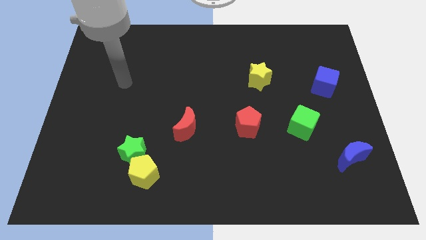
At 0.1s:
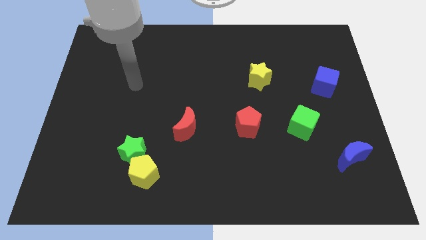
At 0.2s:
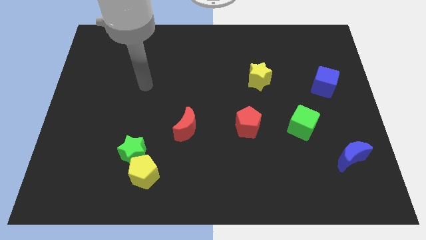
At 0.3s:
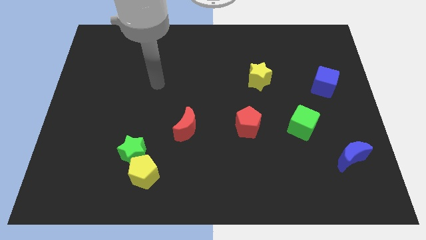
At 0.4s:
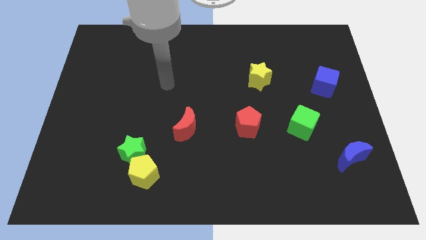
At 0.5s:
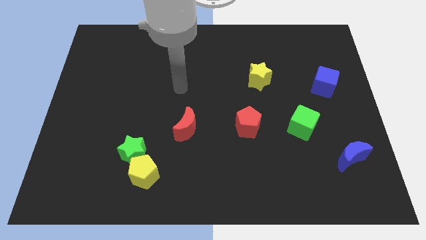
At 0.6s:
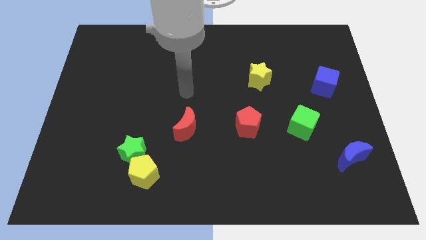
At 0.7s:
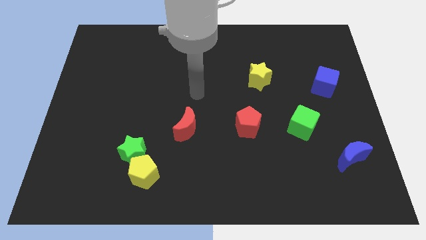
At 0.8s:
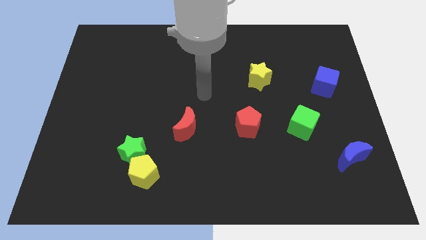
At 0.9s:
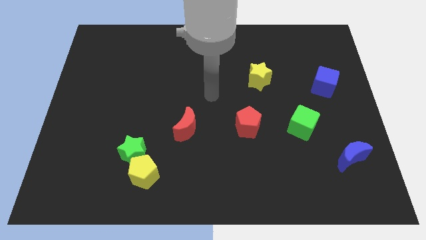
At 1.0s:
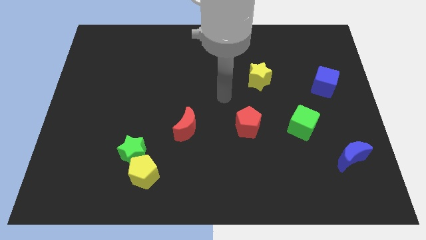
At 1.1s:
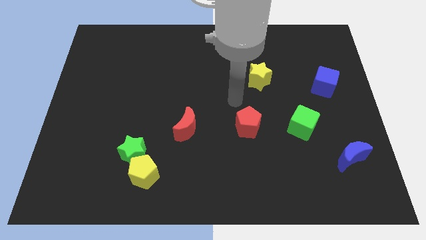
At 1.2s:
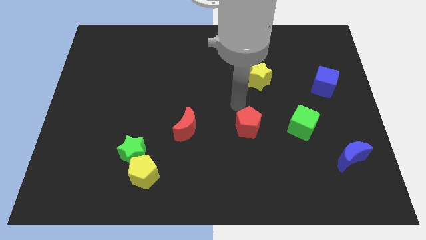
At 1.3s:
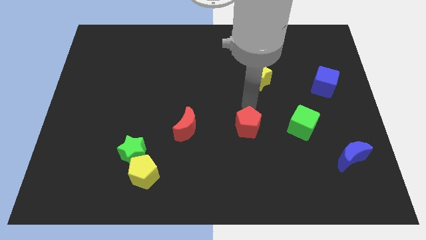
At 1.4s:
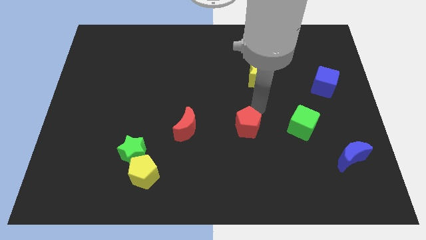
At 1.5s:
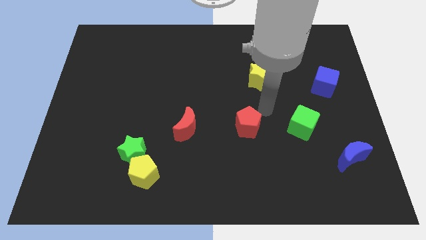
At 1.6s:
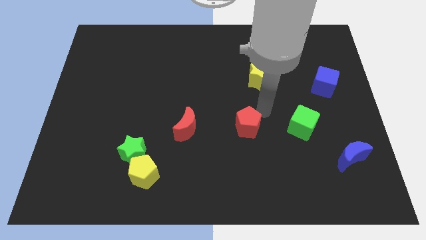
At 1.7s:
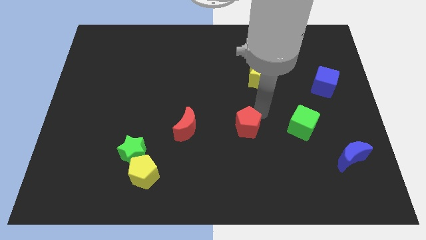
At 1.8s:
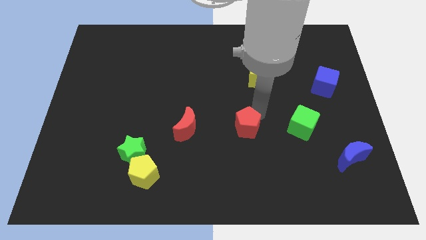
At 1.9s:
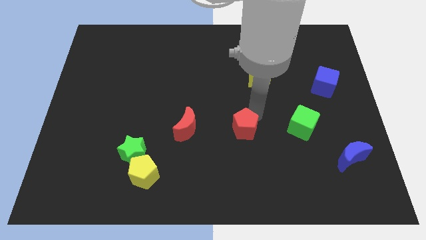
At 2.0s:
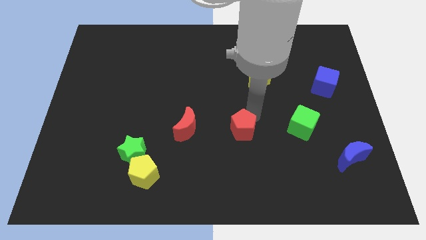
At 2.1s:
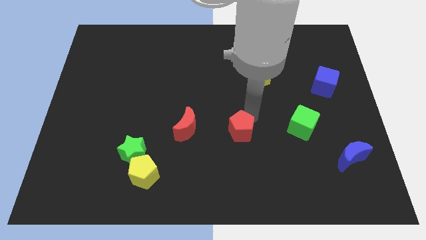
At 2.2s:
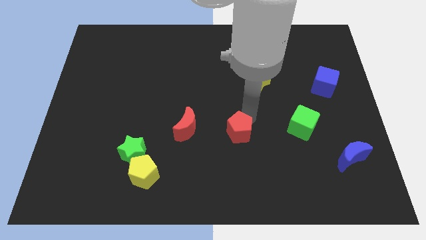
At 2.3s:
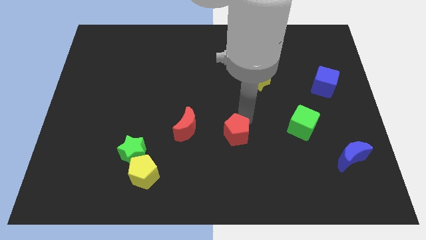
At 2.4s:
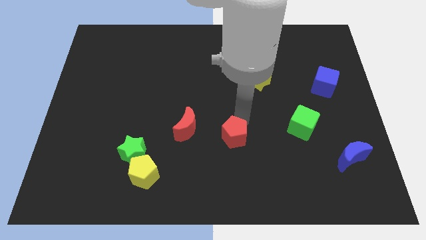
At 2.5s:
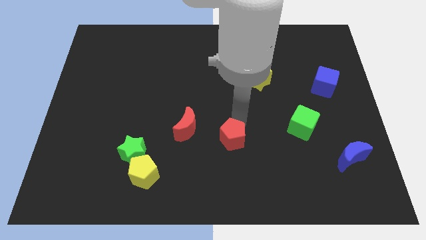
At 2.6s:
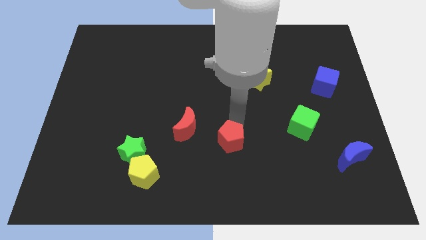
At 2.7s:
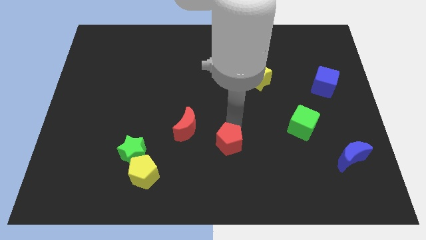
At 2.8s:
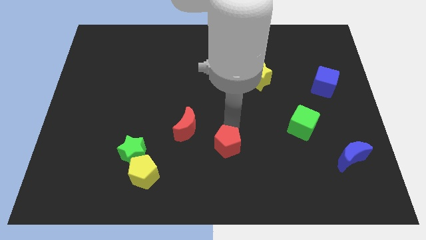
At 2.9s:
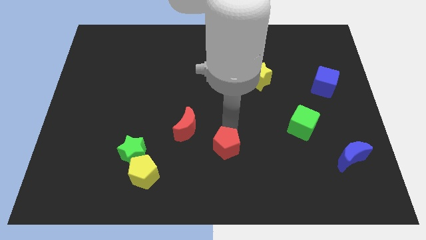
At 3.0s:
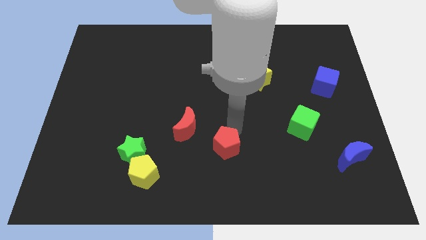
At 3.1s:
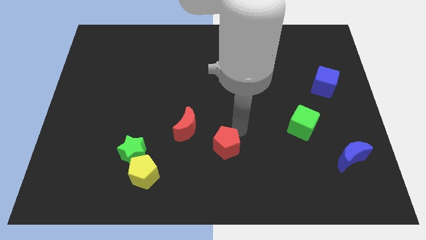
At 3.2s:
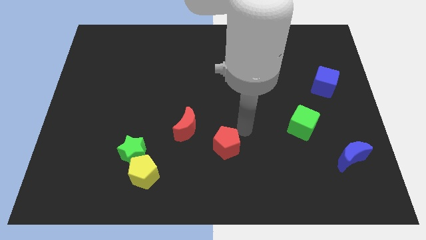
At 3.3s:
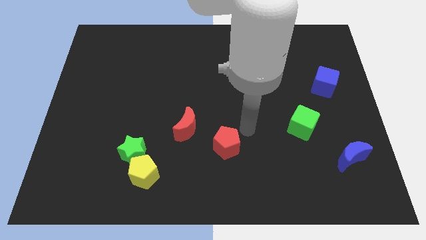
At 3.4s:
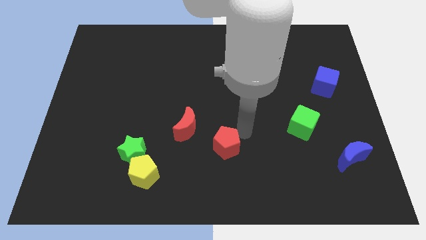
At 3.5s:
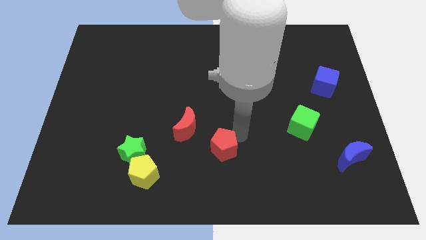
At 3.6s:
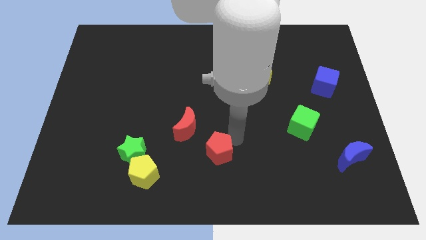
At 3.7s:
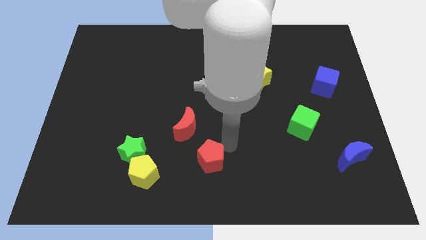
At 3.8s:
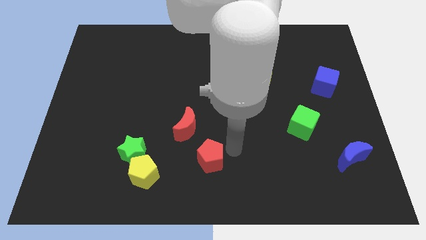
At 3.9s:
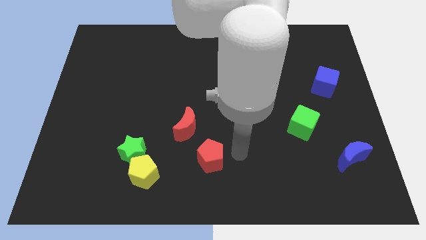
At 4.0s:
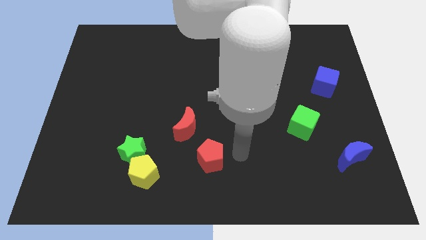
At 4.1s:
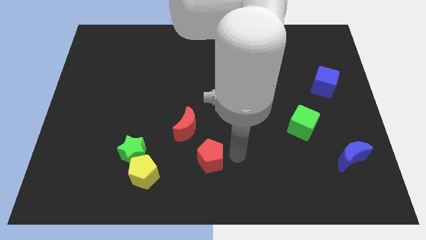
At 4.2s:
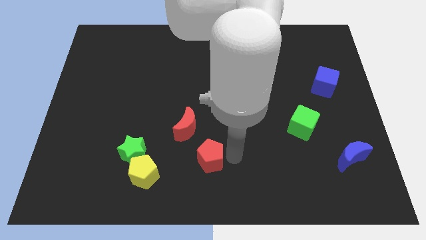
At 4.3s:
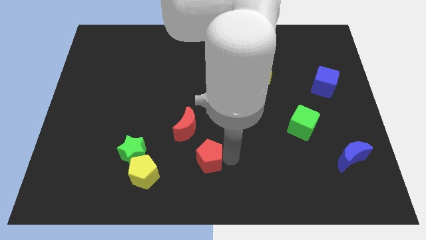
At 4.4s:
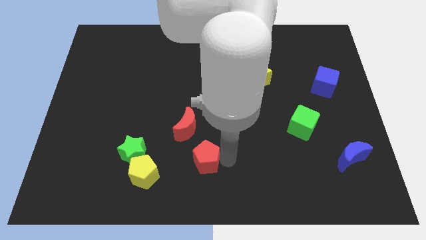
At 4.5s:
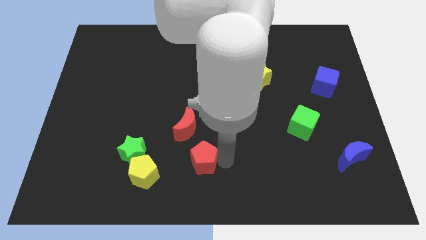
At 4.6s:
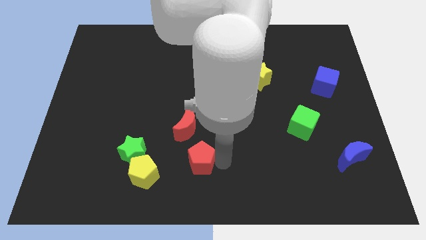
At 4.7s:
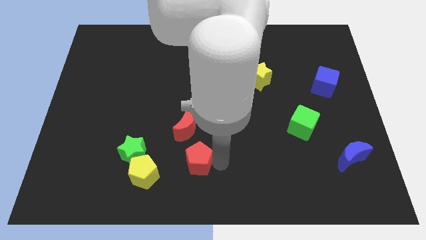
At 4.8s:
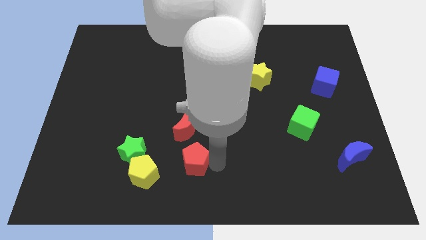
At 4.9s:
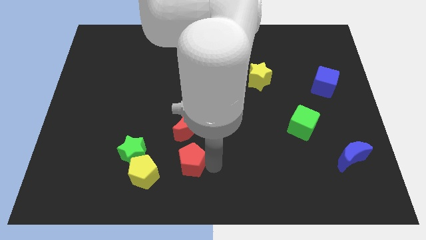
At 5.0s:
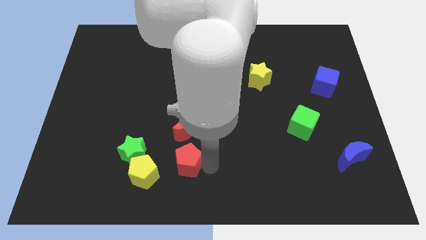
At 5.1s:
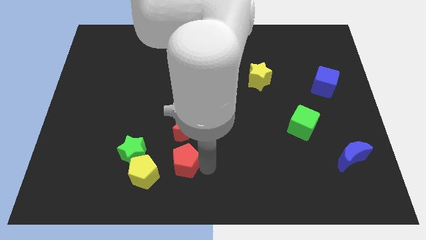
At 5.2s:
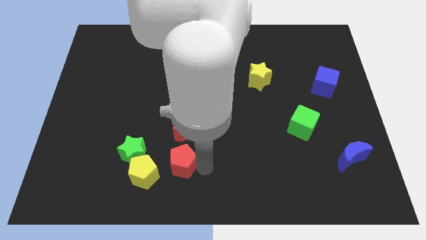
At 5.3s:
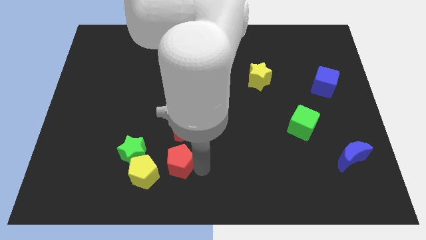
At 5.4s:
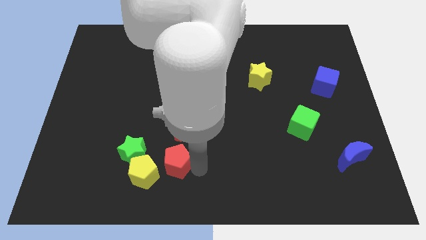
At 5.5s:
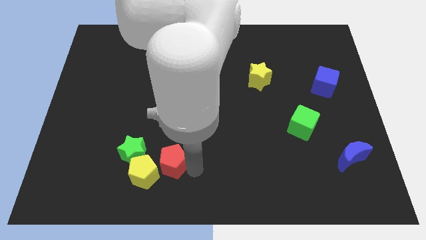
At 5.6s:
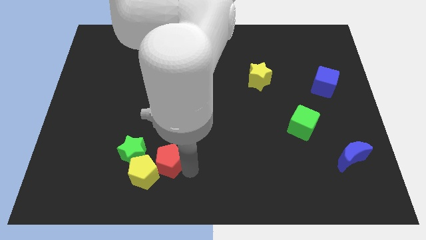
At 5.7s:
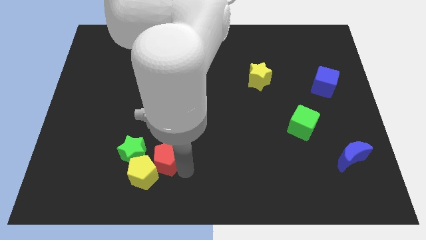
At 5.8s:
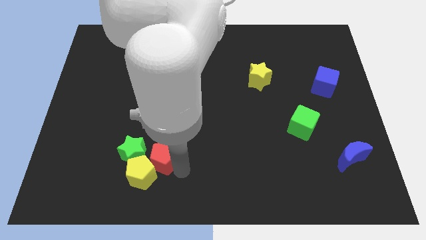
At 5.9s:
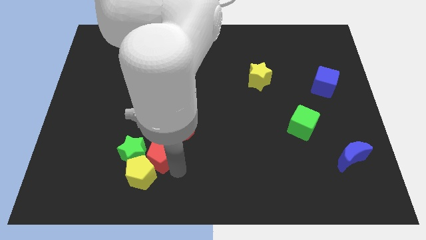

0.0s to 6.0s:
push the red pentagon to the green star

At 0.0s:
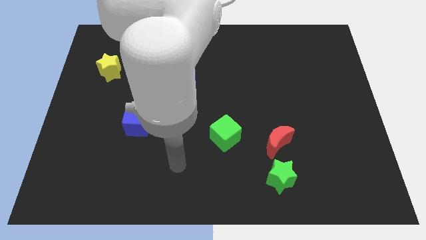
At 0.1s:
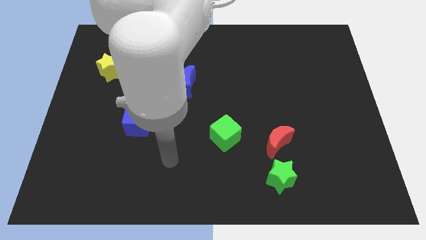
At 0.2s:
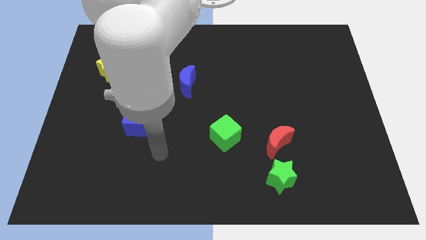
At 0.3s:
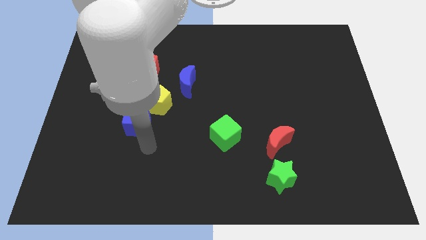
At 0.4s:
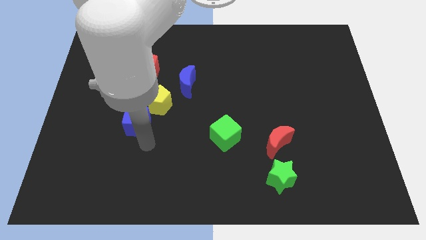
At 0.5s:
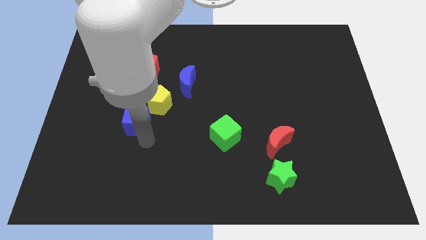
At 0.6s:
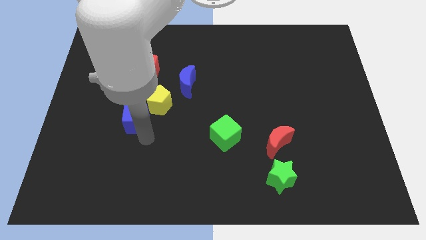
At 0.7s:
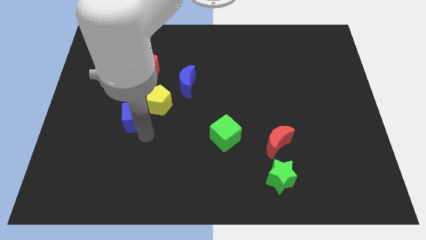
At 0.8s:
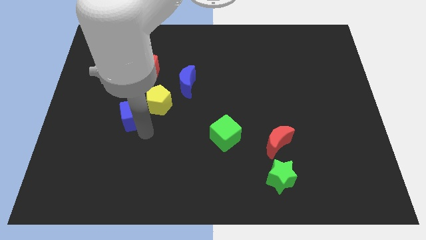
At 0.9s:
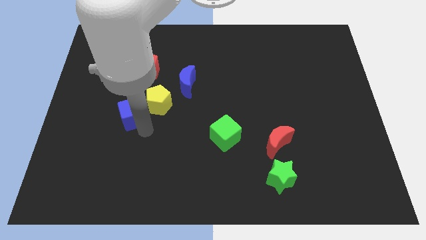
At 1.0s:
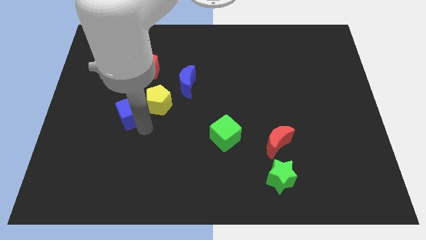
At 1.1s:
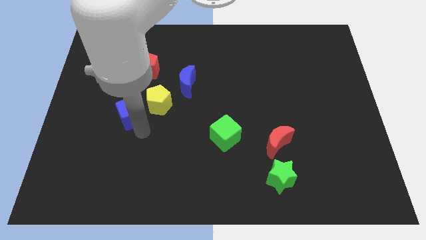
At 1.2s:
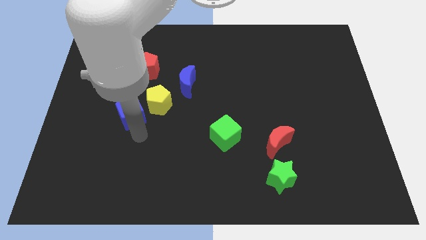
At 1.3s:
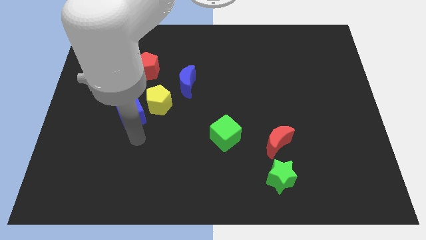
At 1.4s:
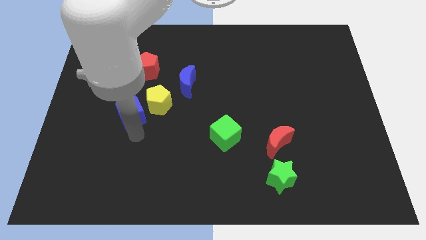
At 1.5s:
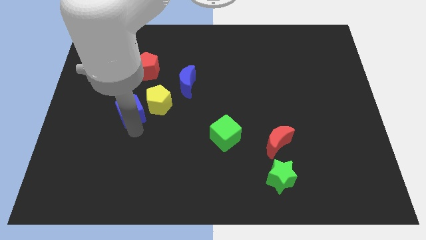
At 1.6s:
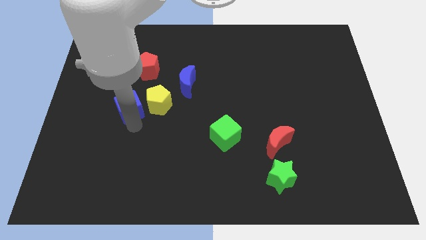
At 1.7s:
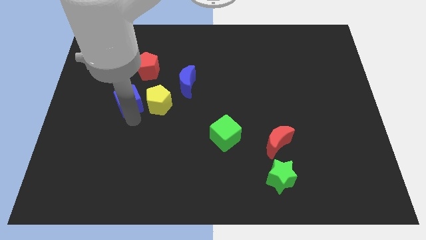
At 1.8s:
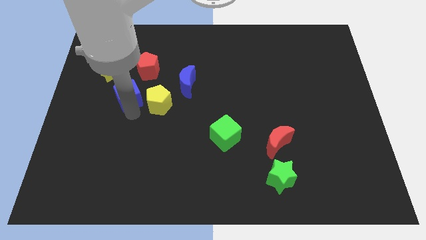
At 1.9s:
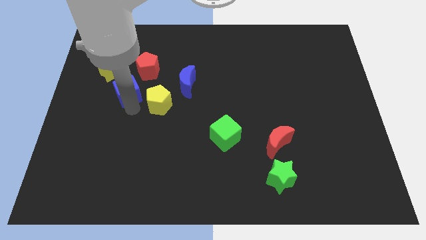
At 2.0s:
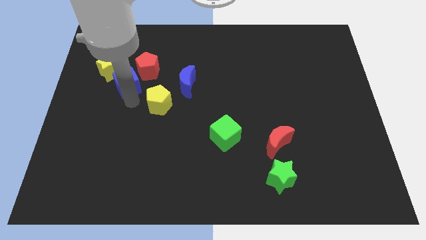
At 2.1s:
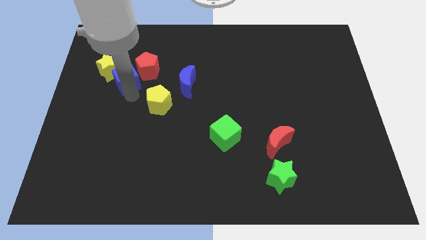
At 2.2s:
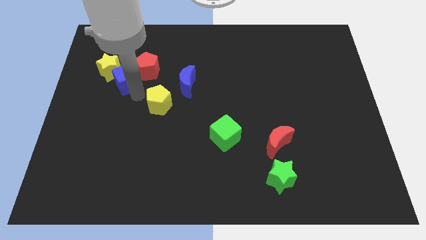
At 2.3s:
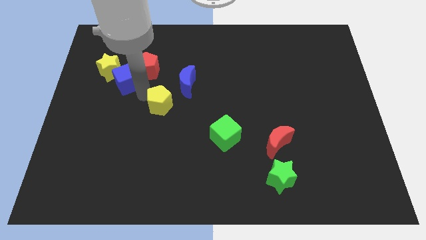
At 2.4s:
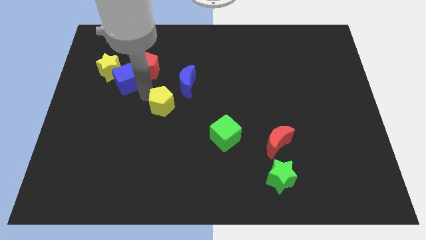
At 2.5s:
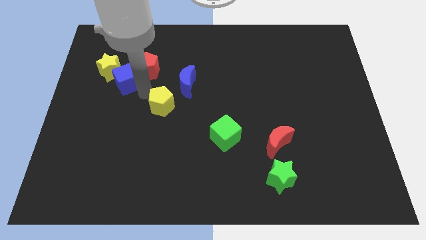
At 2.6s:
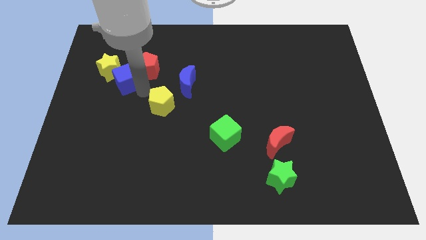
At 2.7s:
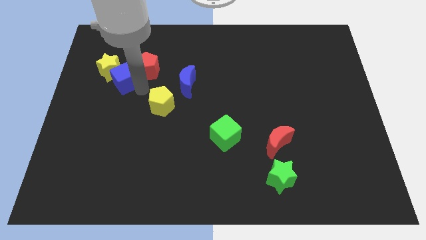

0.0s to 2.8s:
push the blue cube to the yellow star
